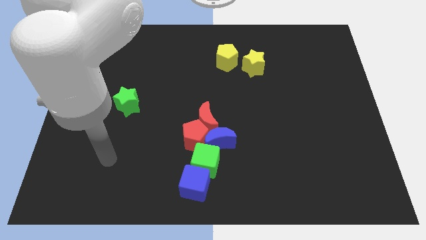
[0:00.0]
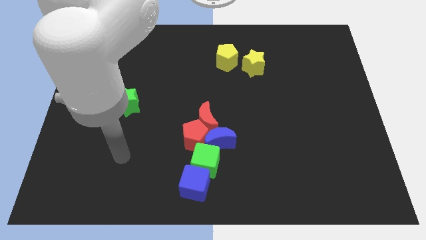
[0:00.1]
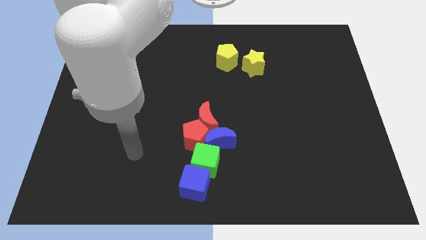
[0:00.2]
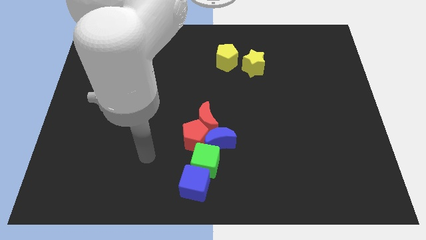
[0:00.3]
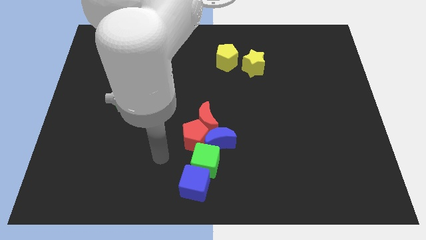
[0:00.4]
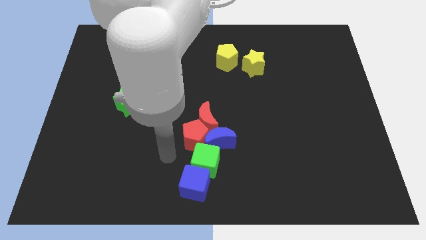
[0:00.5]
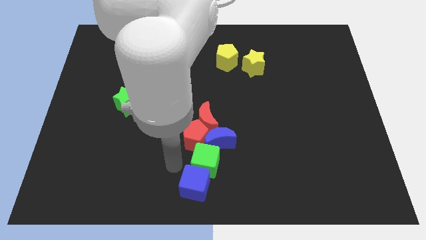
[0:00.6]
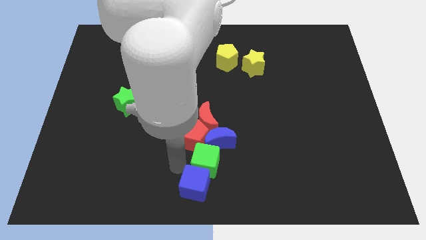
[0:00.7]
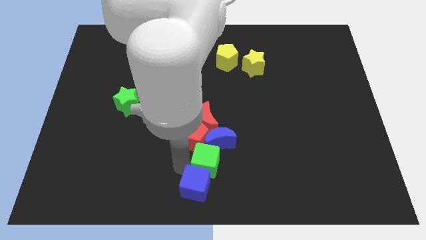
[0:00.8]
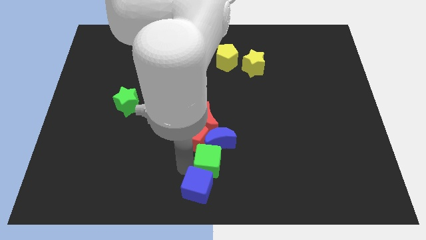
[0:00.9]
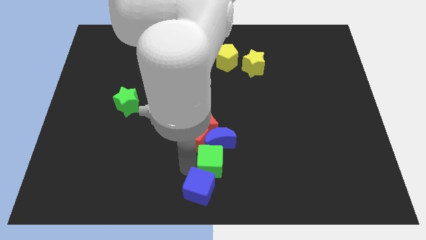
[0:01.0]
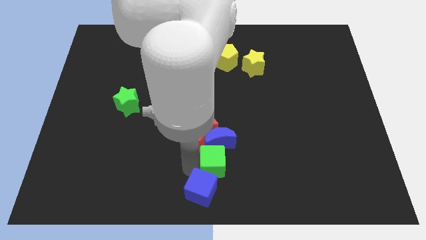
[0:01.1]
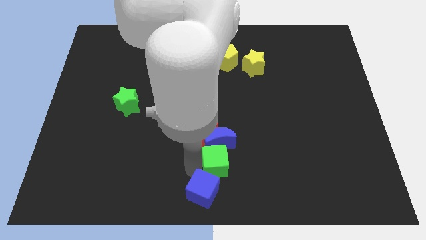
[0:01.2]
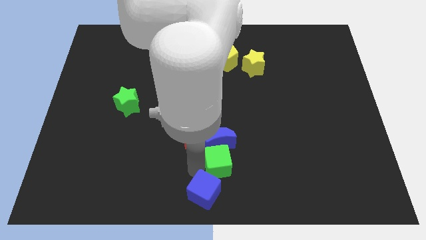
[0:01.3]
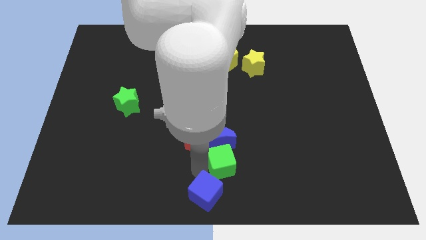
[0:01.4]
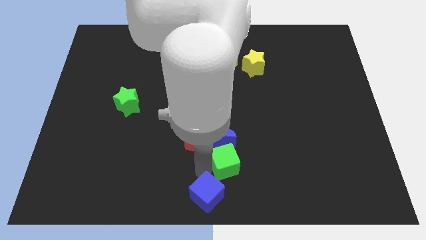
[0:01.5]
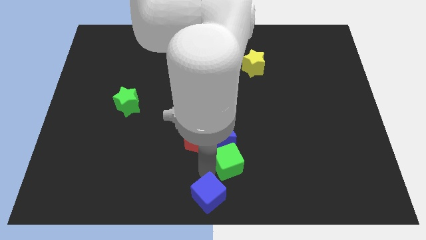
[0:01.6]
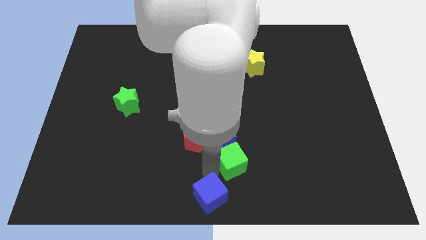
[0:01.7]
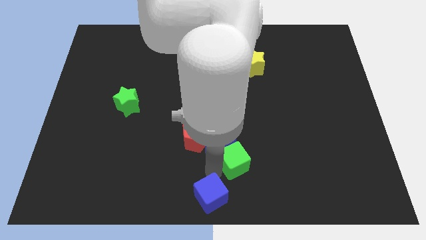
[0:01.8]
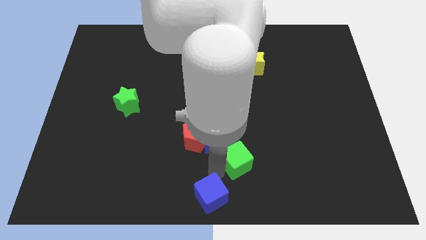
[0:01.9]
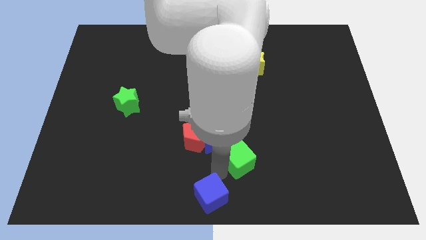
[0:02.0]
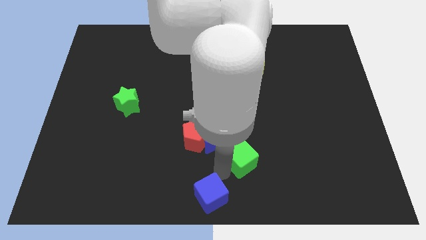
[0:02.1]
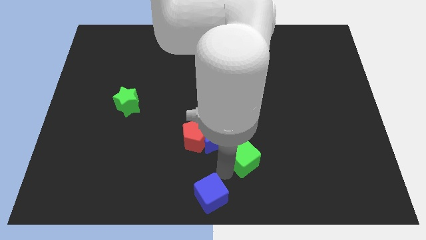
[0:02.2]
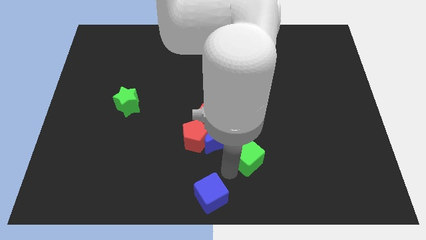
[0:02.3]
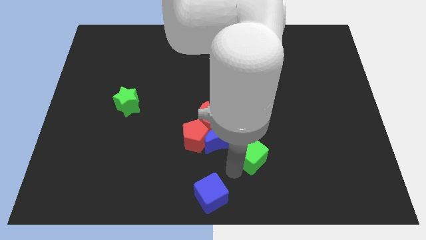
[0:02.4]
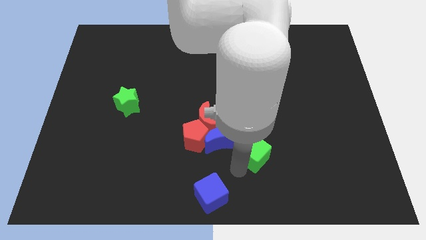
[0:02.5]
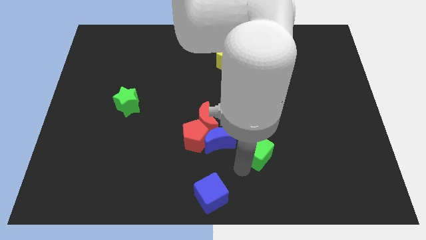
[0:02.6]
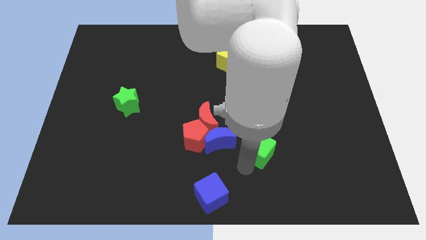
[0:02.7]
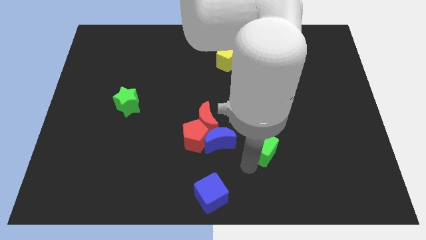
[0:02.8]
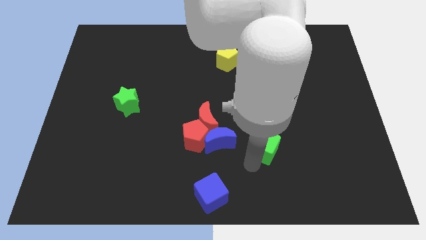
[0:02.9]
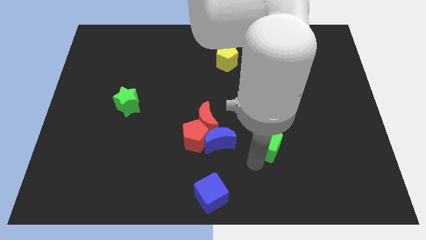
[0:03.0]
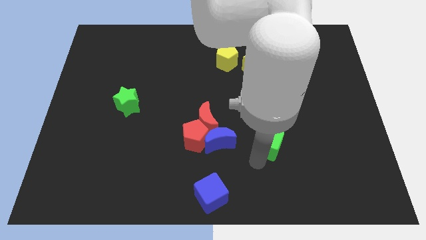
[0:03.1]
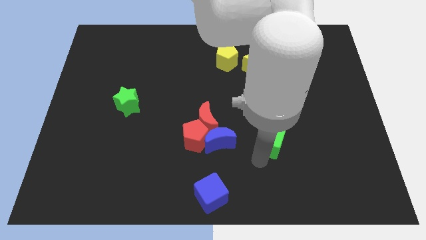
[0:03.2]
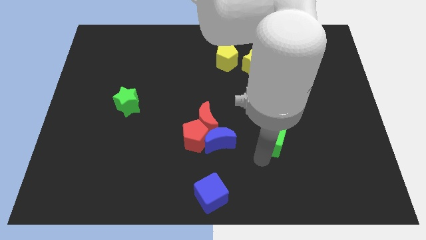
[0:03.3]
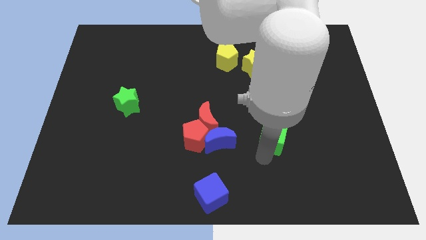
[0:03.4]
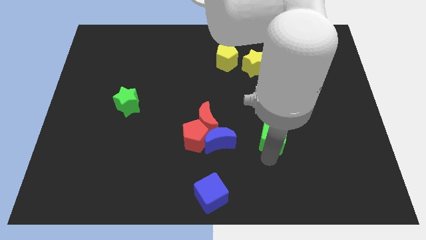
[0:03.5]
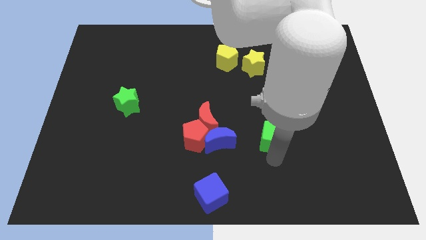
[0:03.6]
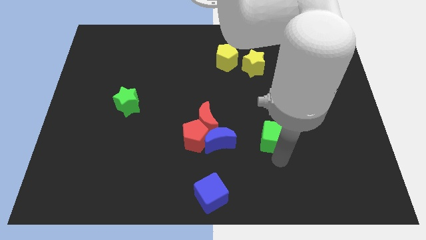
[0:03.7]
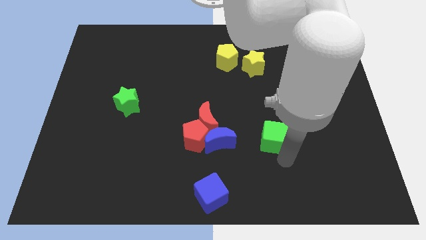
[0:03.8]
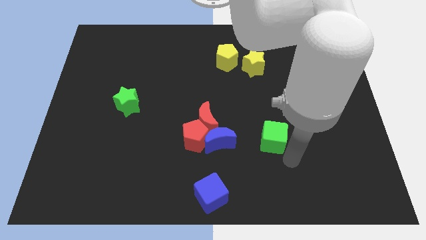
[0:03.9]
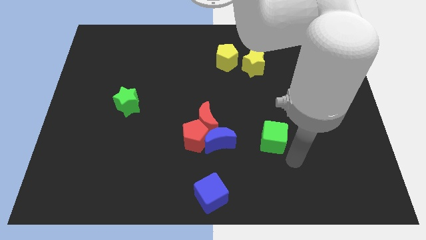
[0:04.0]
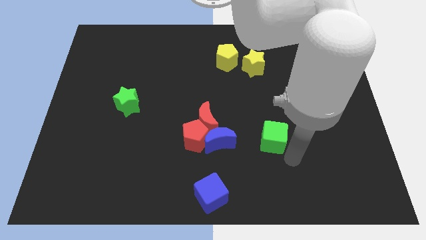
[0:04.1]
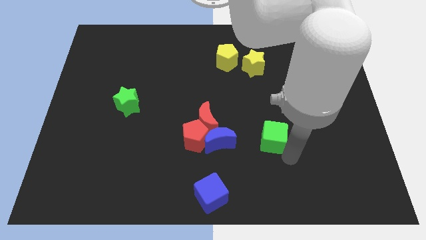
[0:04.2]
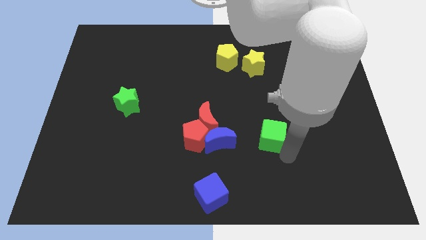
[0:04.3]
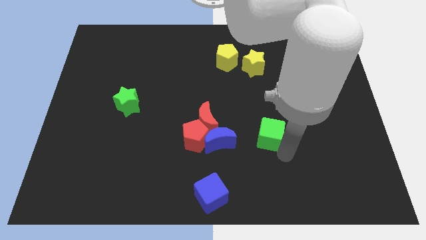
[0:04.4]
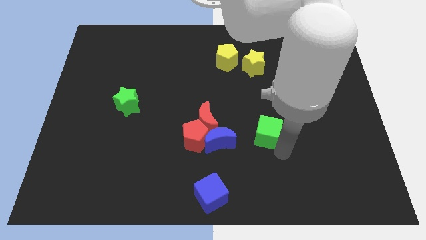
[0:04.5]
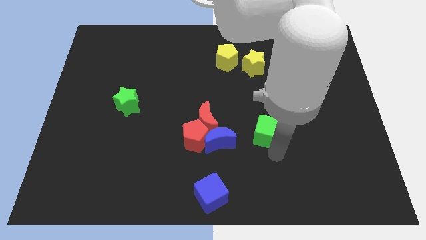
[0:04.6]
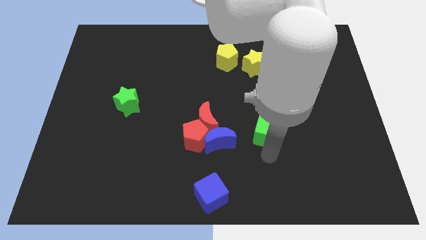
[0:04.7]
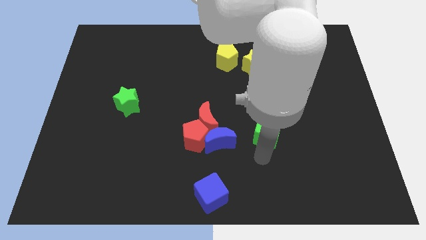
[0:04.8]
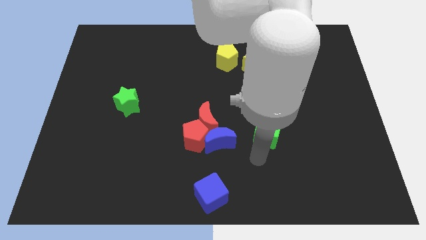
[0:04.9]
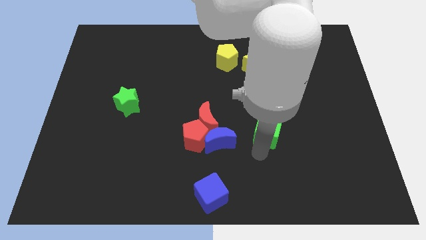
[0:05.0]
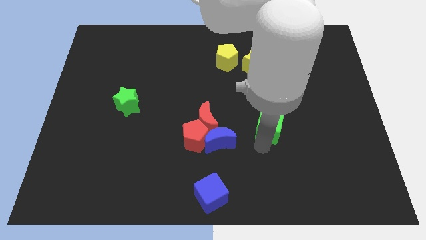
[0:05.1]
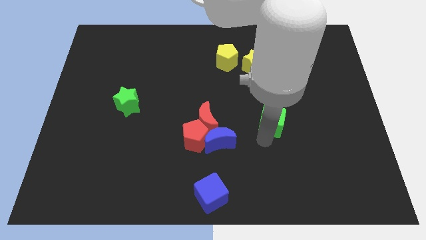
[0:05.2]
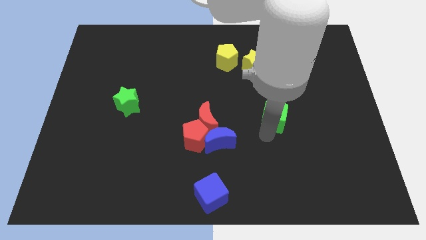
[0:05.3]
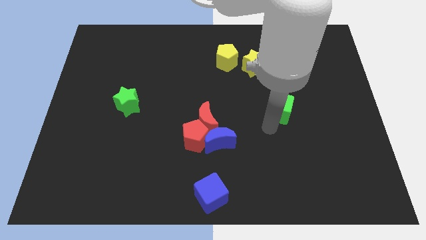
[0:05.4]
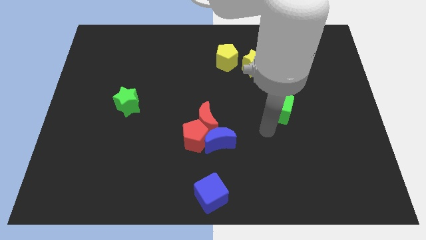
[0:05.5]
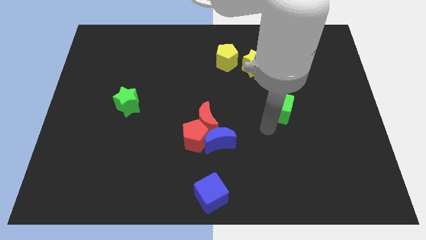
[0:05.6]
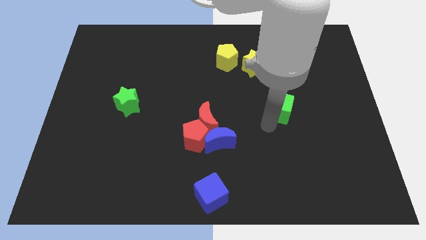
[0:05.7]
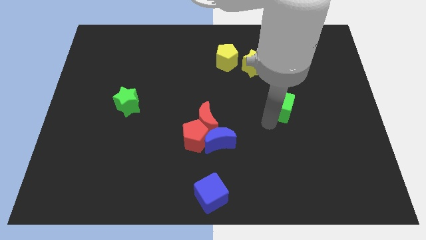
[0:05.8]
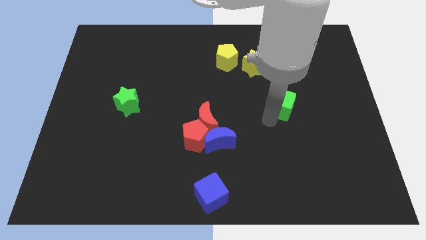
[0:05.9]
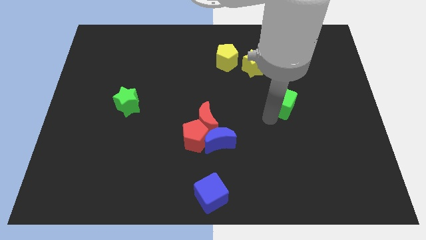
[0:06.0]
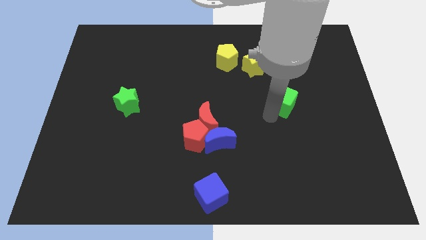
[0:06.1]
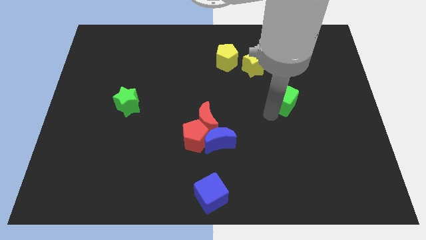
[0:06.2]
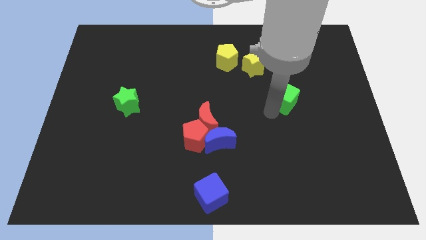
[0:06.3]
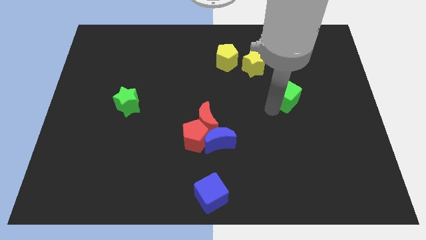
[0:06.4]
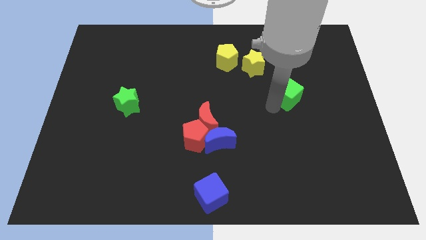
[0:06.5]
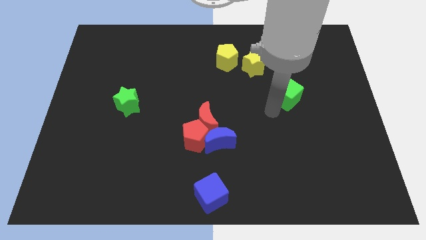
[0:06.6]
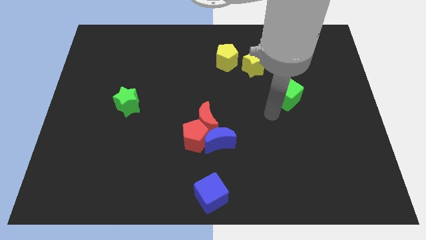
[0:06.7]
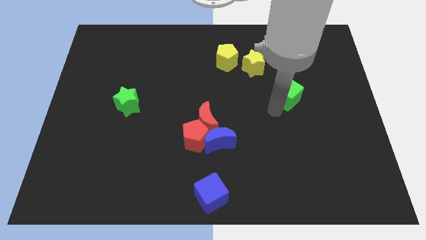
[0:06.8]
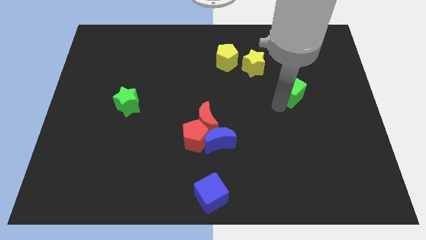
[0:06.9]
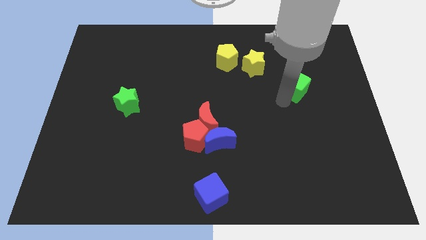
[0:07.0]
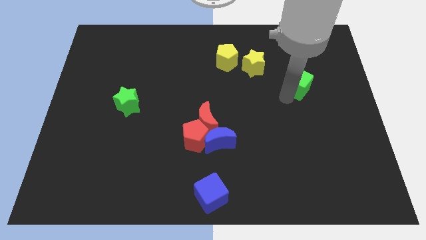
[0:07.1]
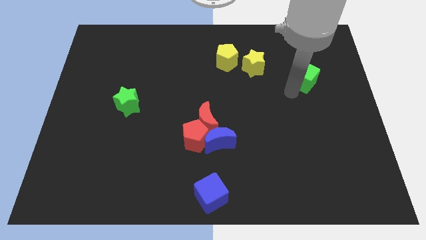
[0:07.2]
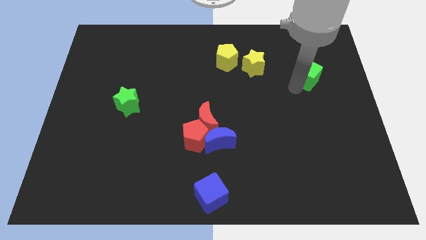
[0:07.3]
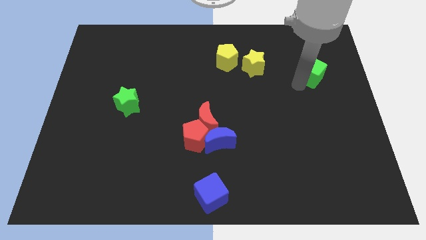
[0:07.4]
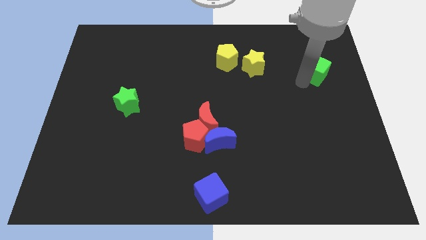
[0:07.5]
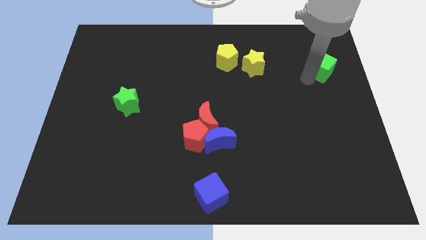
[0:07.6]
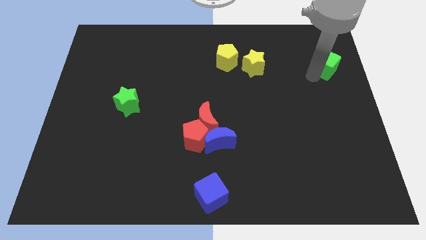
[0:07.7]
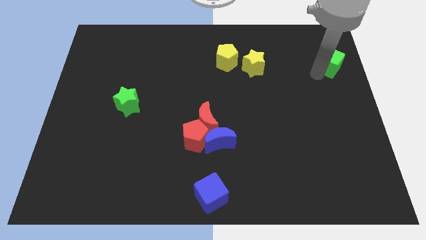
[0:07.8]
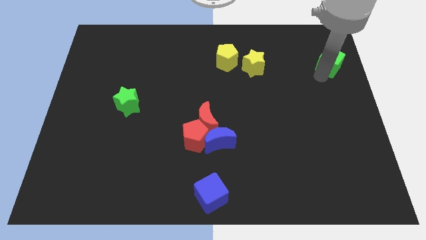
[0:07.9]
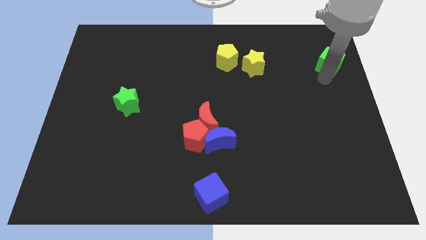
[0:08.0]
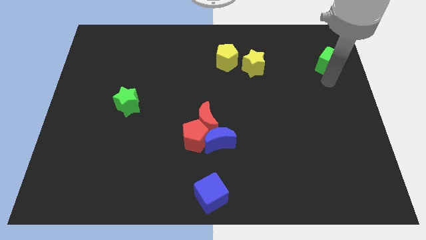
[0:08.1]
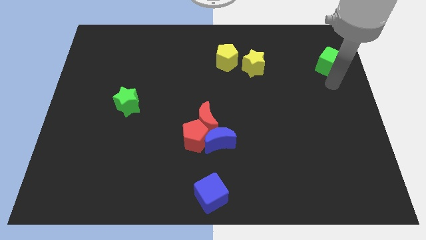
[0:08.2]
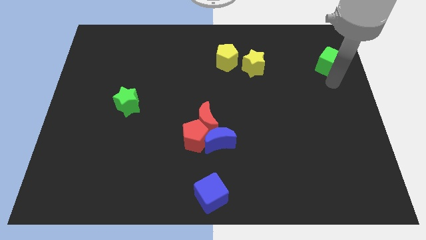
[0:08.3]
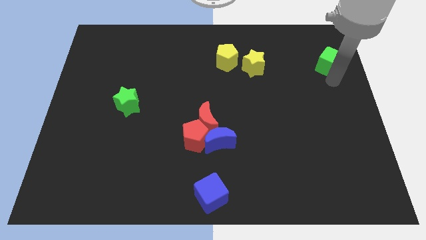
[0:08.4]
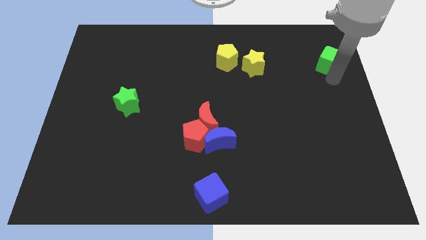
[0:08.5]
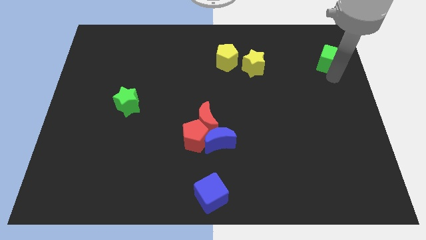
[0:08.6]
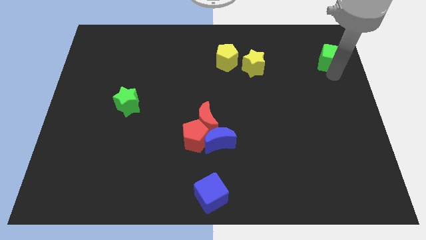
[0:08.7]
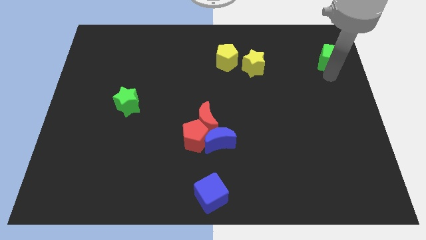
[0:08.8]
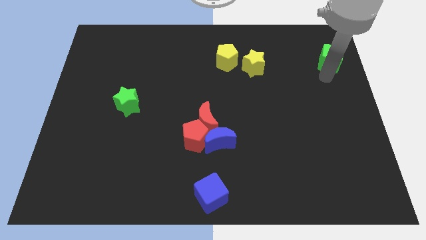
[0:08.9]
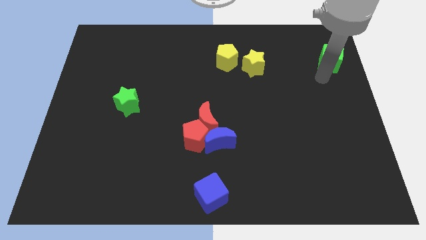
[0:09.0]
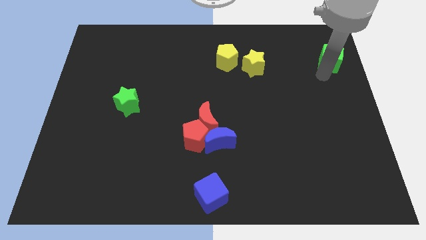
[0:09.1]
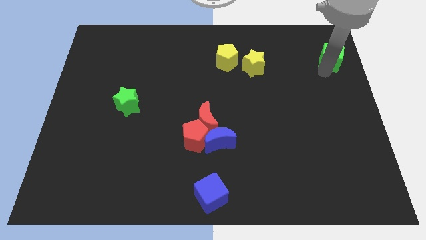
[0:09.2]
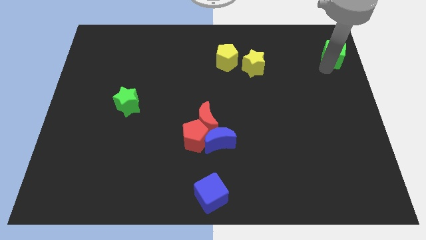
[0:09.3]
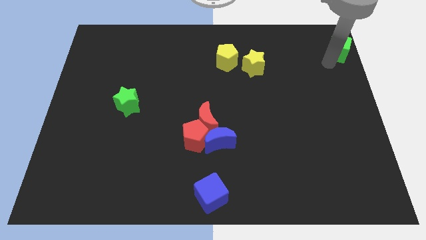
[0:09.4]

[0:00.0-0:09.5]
put the green cube to the top right corner
